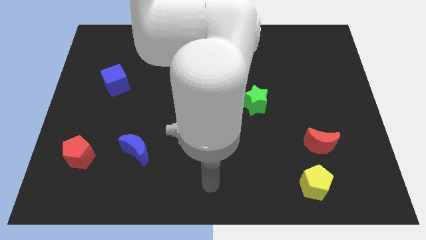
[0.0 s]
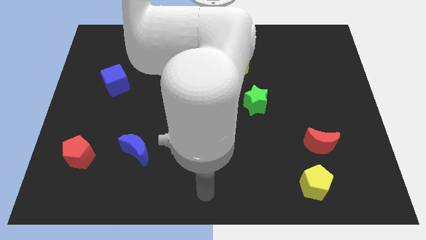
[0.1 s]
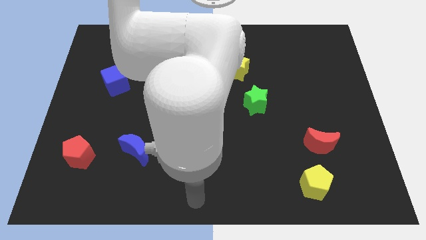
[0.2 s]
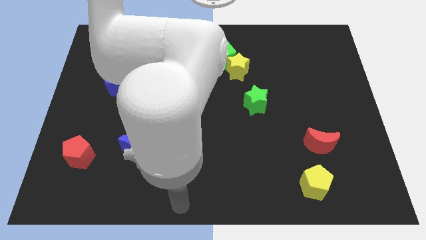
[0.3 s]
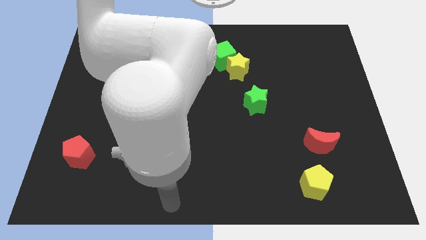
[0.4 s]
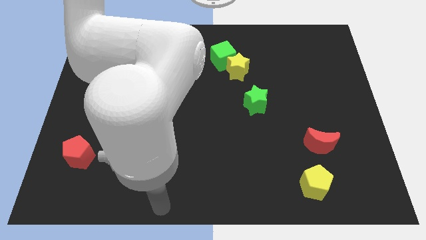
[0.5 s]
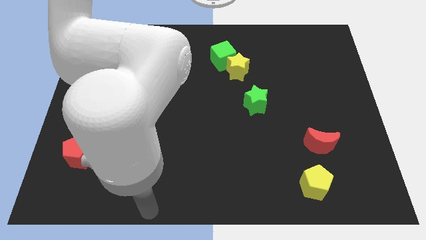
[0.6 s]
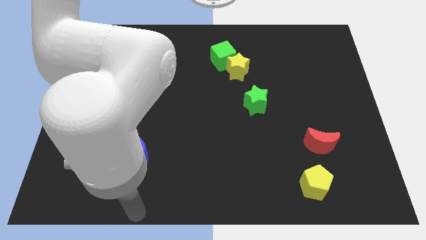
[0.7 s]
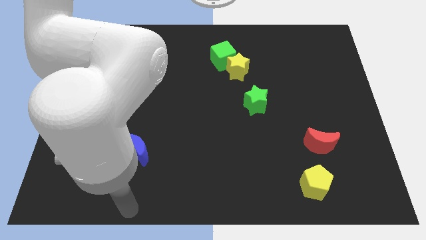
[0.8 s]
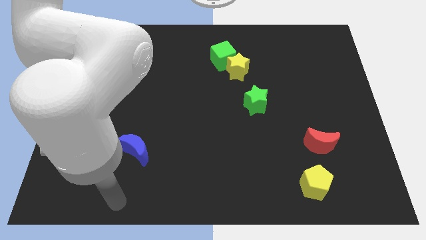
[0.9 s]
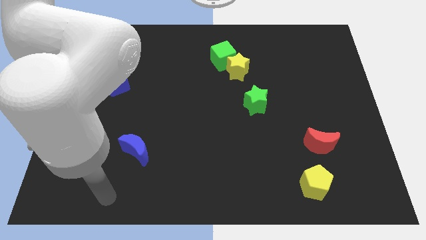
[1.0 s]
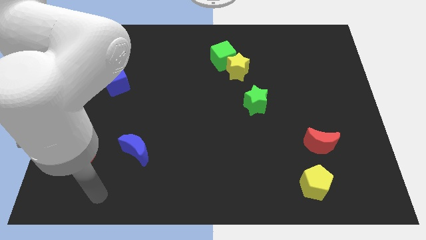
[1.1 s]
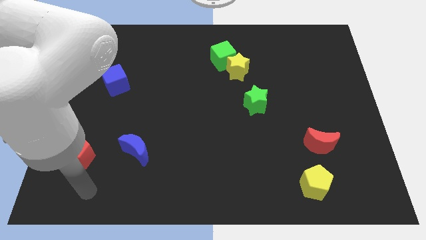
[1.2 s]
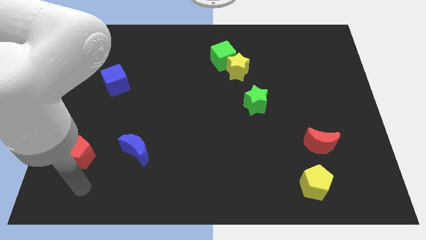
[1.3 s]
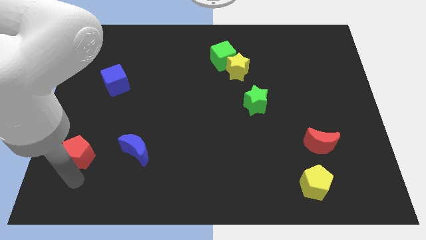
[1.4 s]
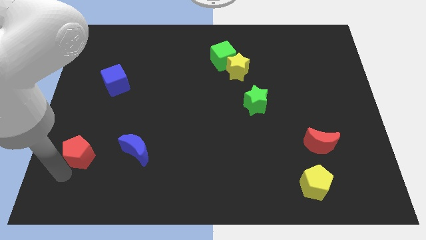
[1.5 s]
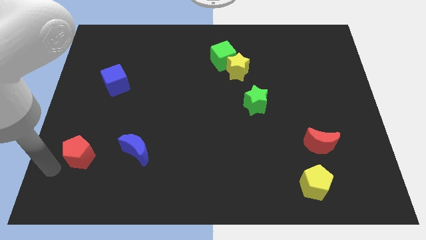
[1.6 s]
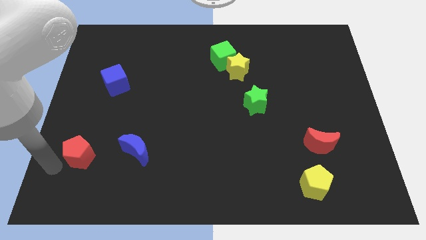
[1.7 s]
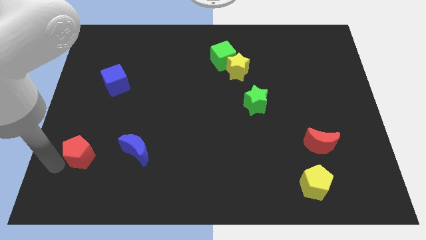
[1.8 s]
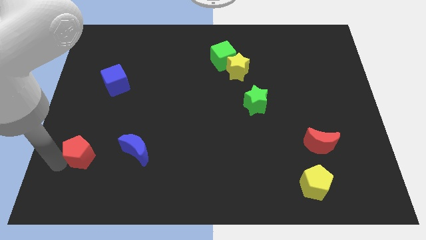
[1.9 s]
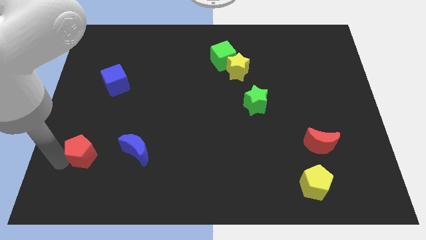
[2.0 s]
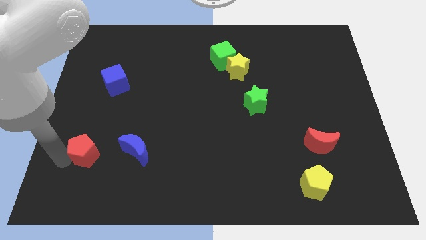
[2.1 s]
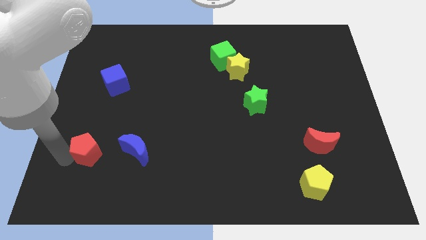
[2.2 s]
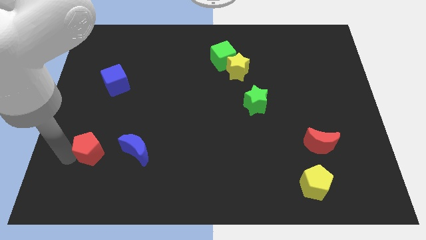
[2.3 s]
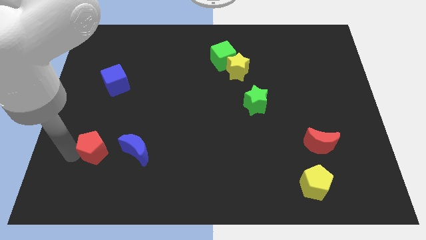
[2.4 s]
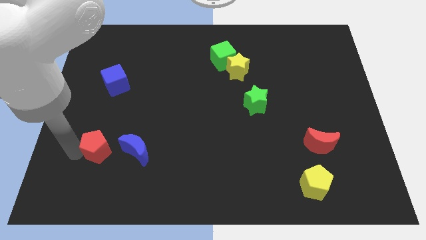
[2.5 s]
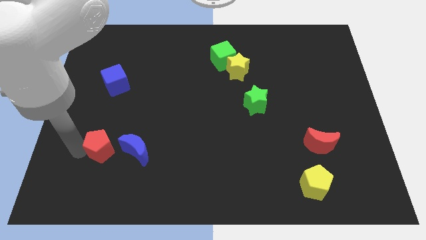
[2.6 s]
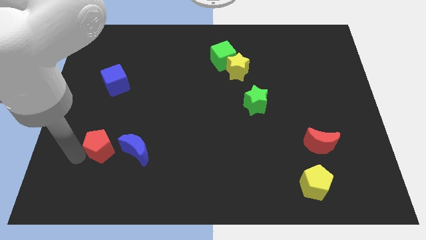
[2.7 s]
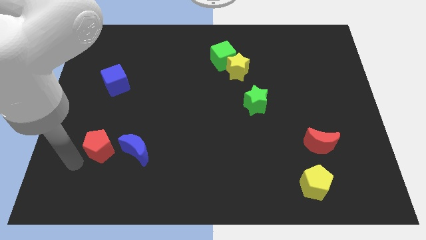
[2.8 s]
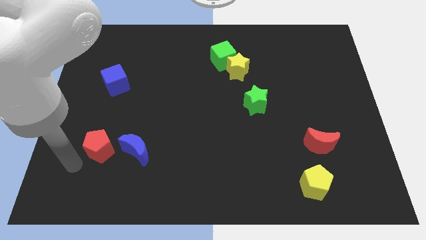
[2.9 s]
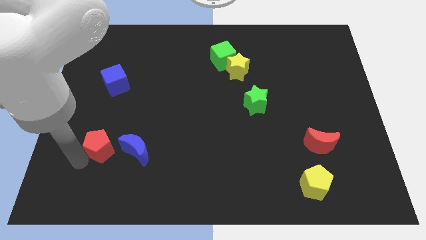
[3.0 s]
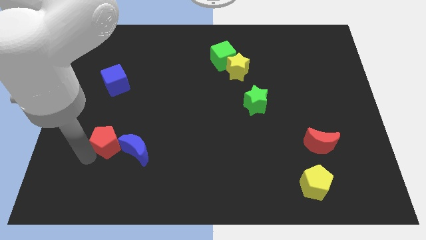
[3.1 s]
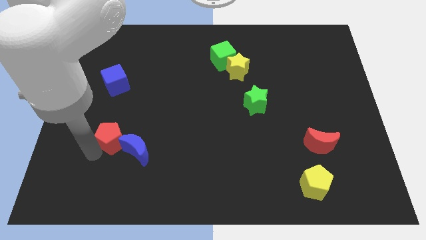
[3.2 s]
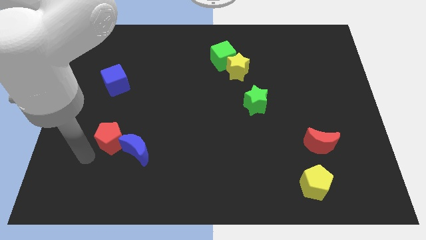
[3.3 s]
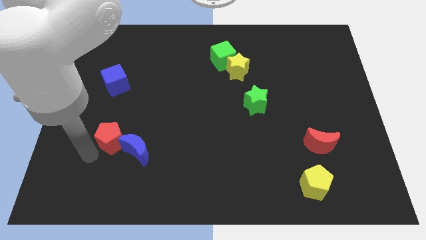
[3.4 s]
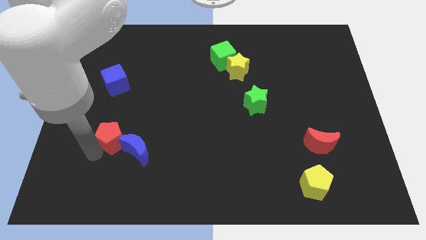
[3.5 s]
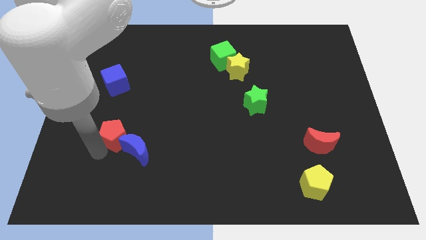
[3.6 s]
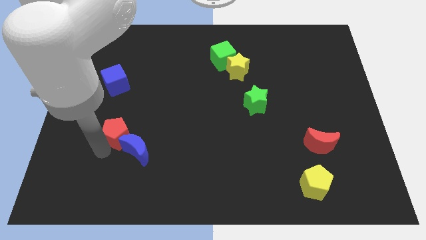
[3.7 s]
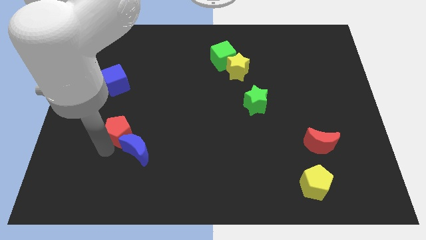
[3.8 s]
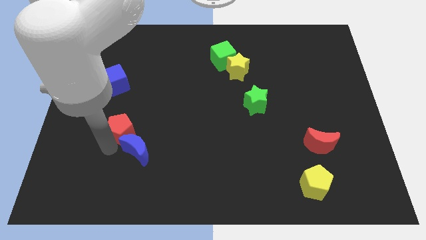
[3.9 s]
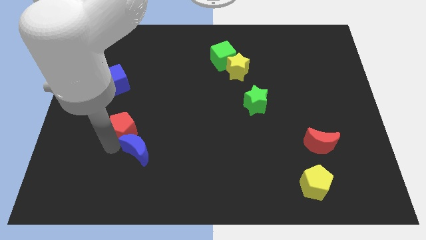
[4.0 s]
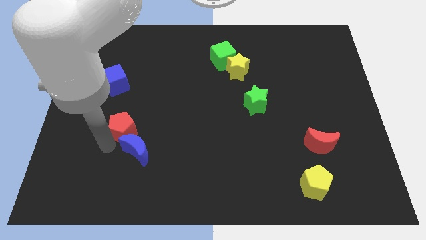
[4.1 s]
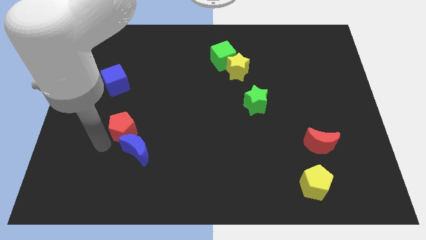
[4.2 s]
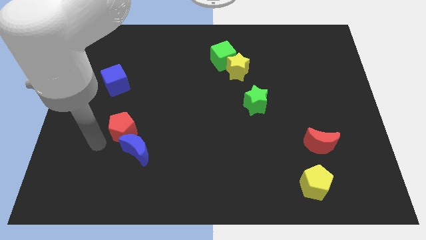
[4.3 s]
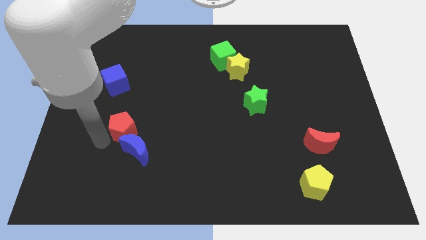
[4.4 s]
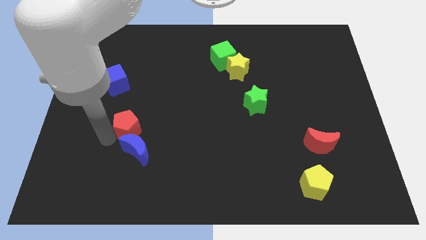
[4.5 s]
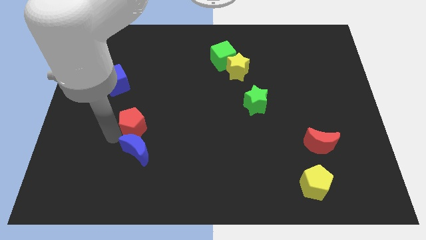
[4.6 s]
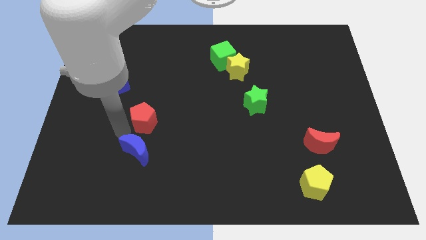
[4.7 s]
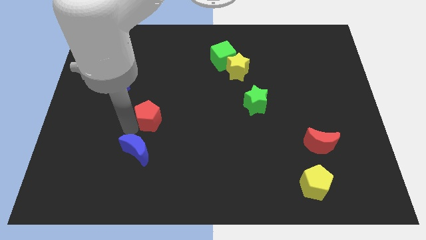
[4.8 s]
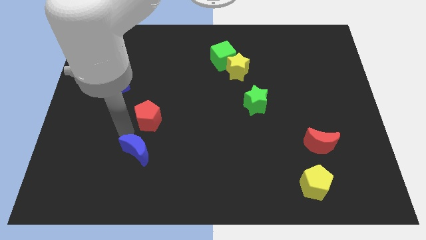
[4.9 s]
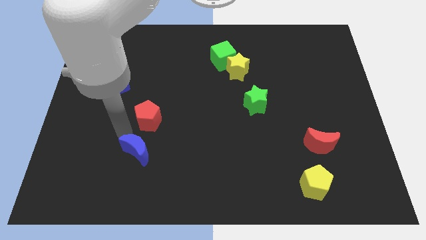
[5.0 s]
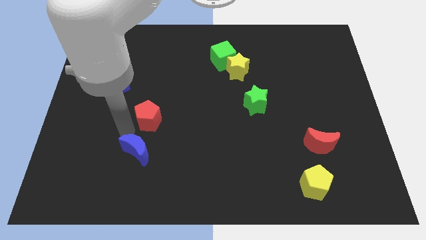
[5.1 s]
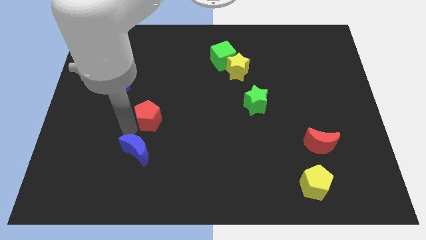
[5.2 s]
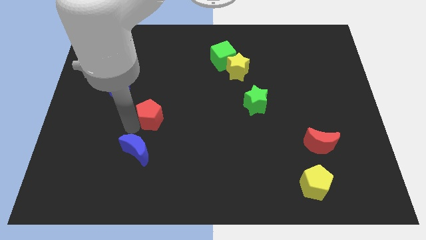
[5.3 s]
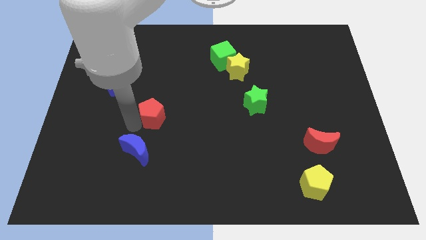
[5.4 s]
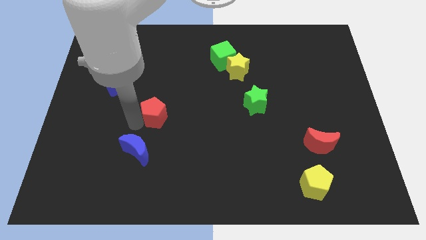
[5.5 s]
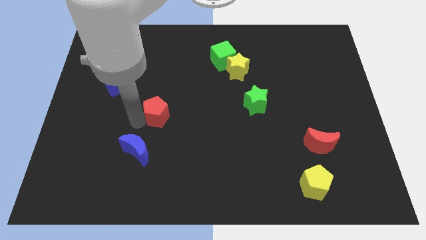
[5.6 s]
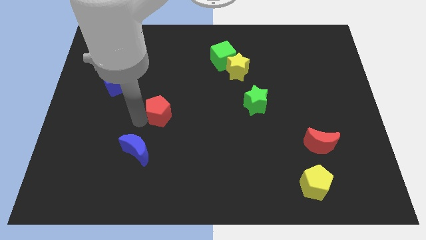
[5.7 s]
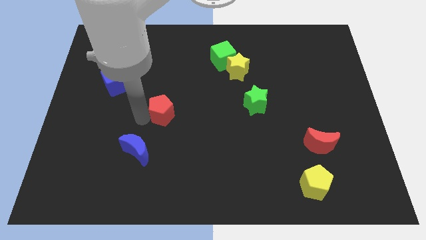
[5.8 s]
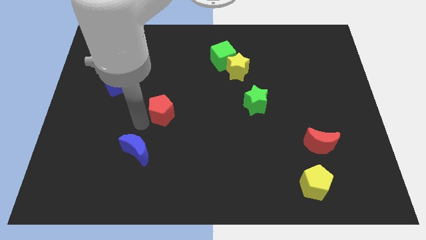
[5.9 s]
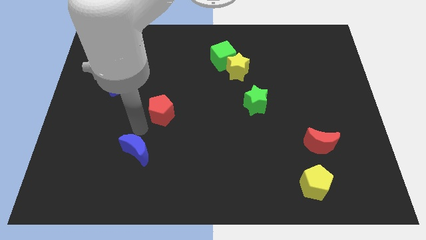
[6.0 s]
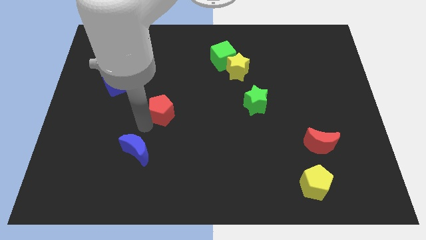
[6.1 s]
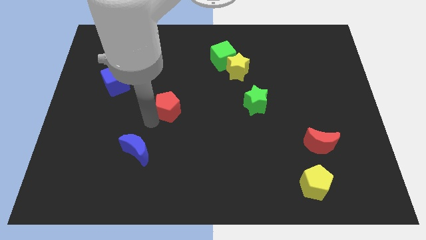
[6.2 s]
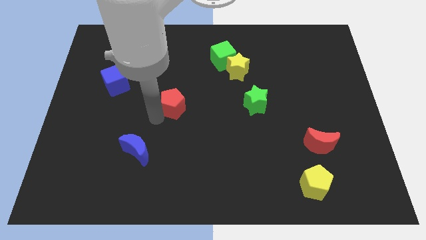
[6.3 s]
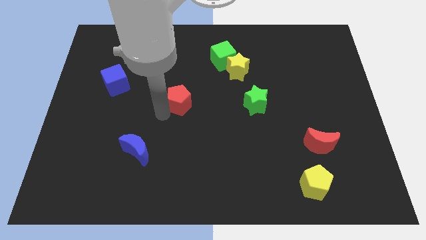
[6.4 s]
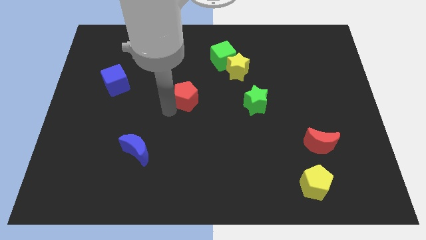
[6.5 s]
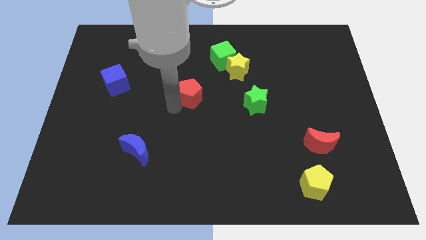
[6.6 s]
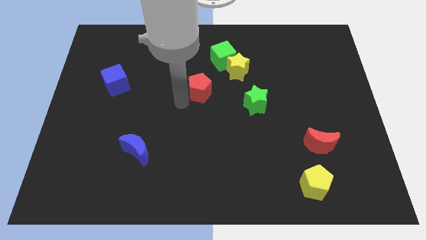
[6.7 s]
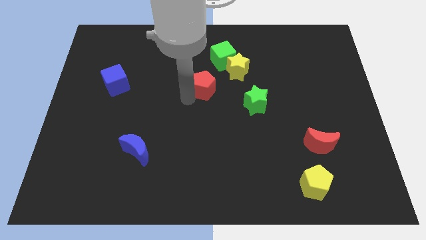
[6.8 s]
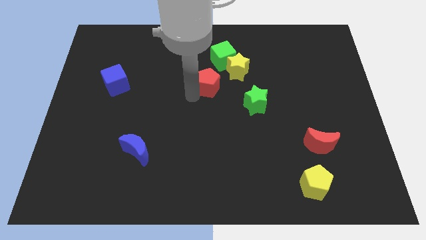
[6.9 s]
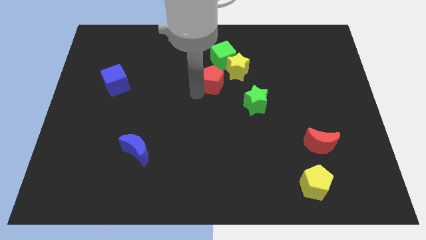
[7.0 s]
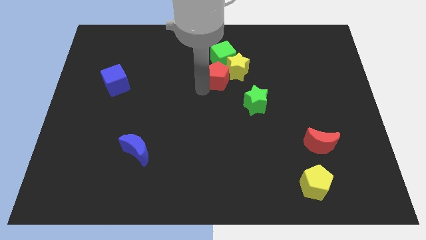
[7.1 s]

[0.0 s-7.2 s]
put the red pentagon towards the yellow star
